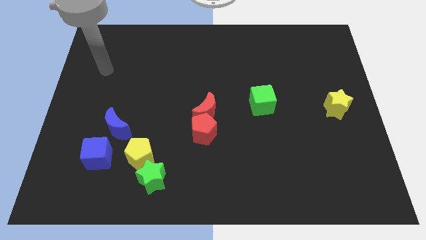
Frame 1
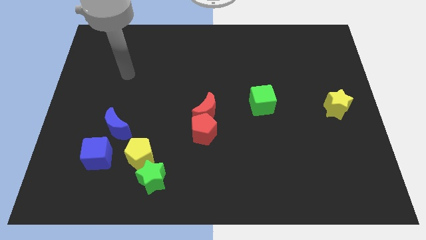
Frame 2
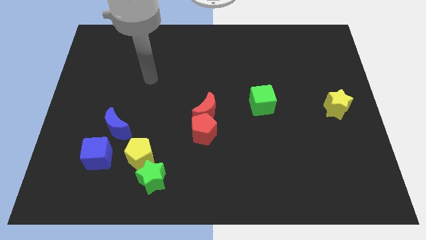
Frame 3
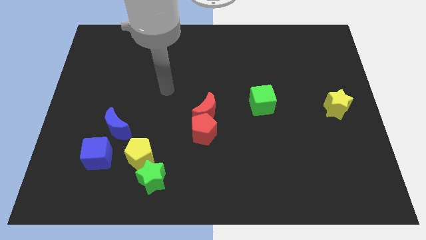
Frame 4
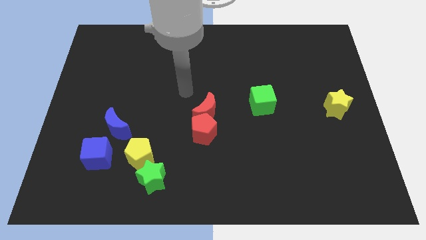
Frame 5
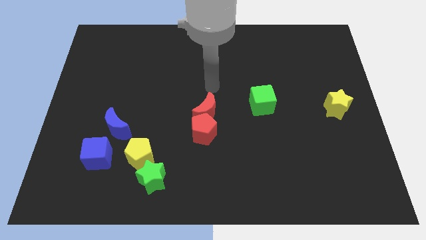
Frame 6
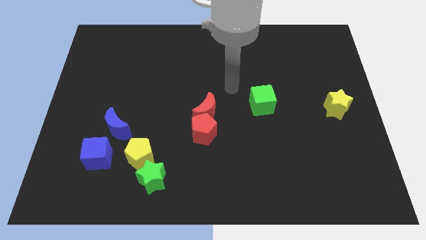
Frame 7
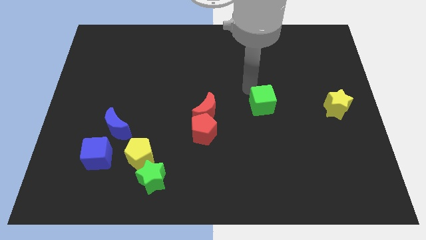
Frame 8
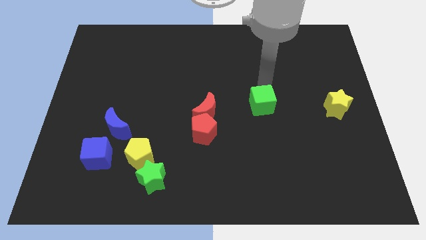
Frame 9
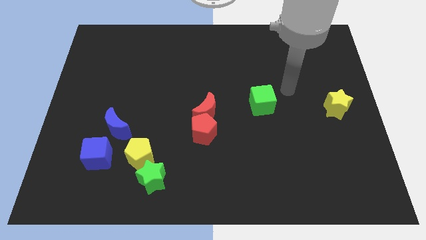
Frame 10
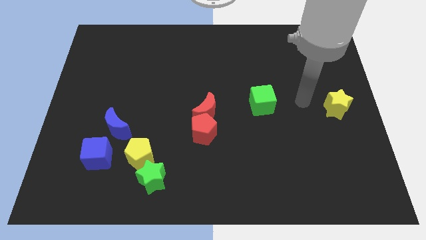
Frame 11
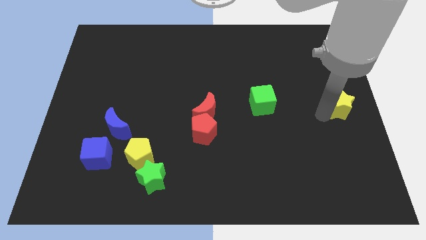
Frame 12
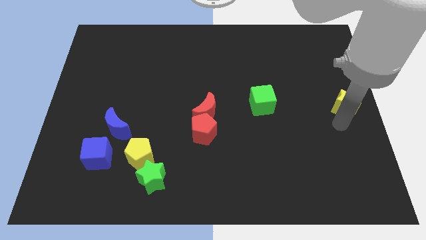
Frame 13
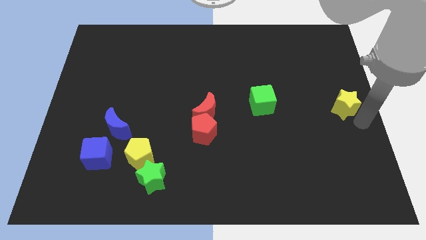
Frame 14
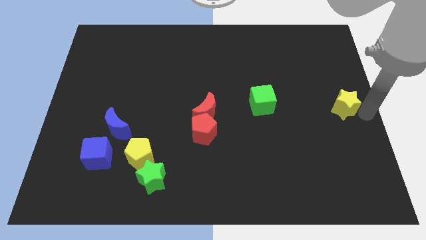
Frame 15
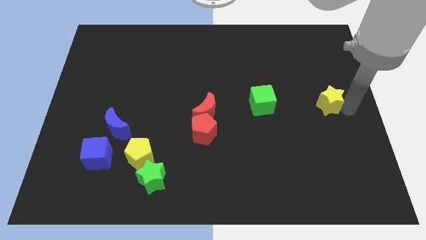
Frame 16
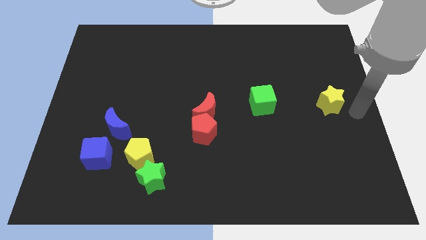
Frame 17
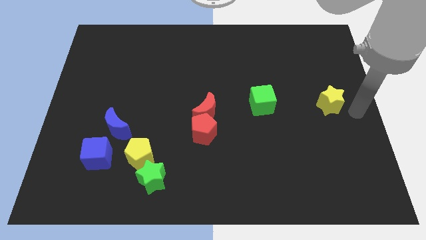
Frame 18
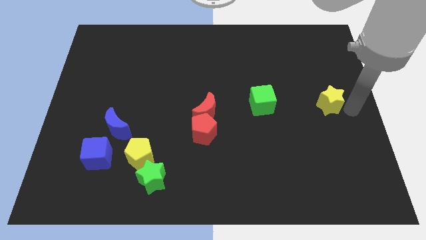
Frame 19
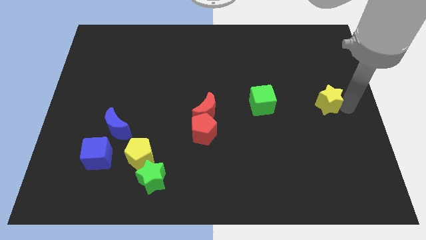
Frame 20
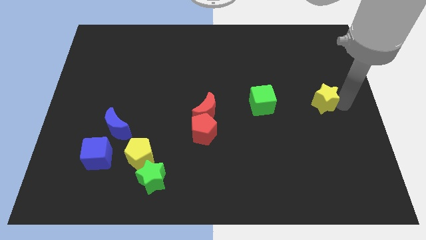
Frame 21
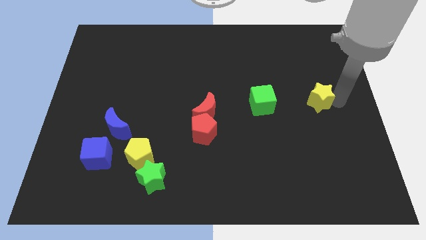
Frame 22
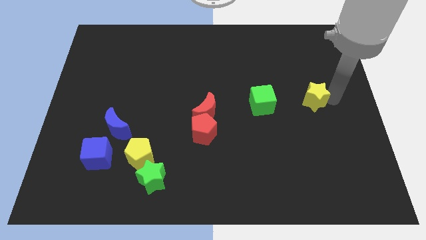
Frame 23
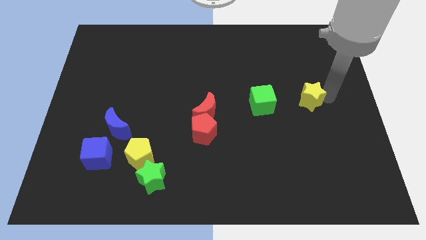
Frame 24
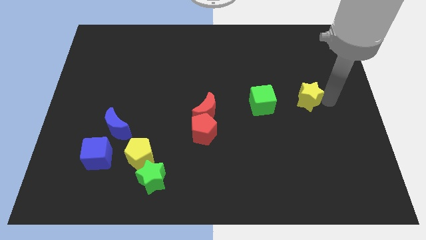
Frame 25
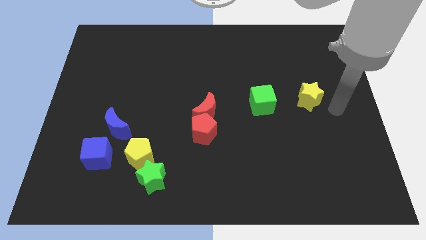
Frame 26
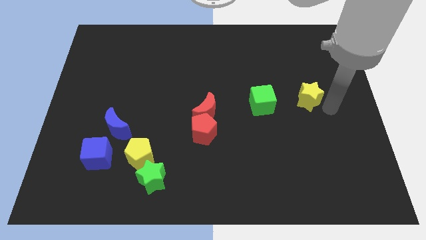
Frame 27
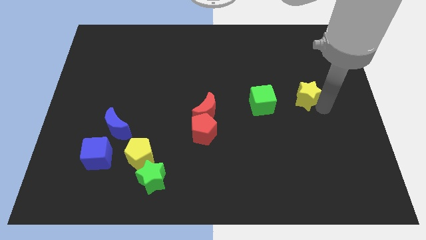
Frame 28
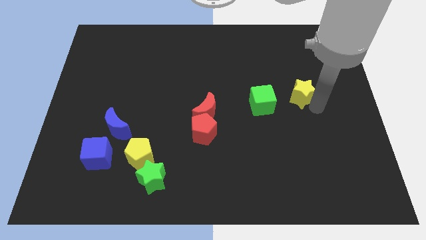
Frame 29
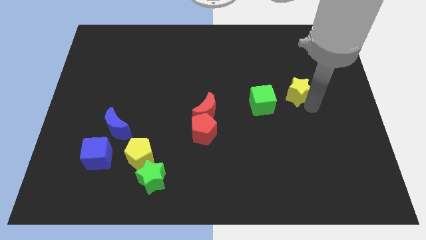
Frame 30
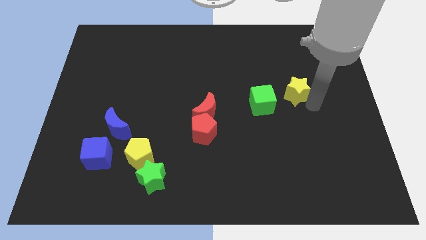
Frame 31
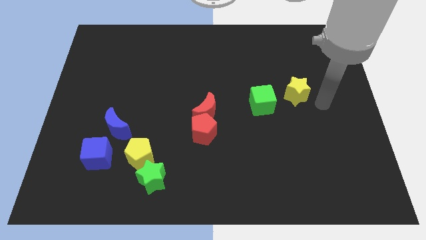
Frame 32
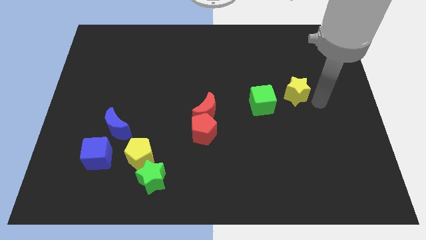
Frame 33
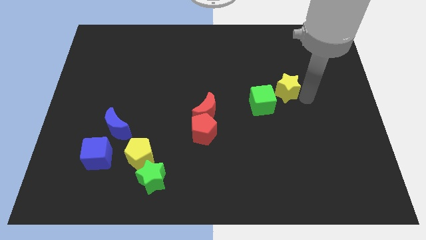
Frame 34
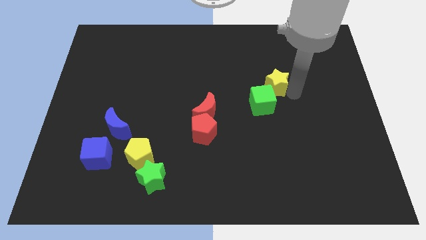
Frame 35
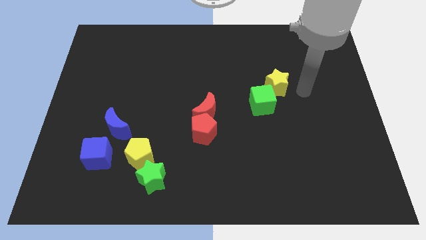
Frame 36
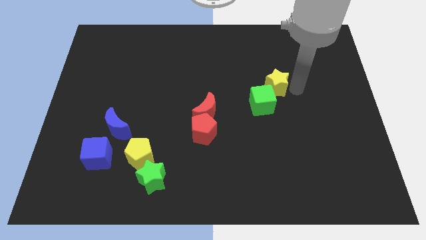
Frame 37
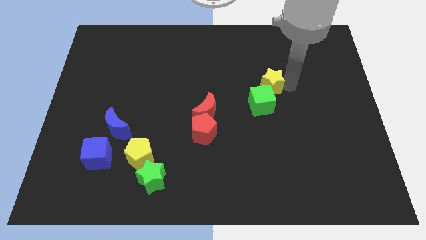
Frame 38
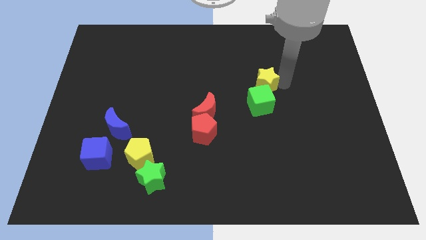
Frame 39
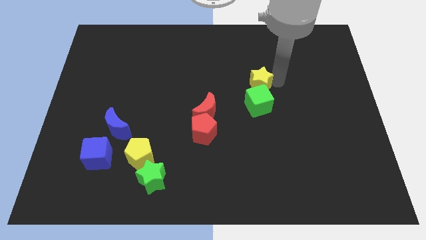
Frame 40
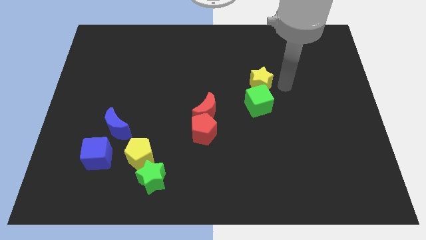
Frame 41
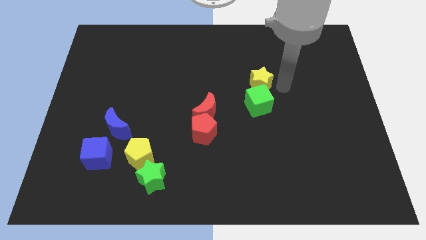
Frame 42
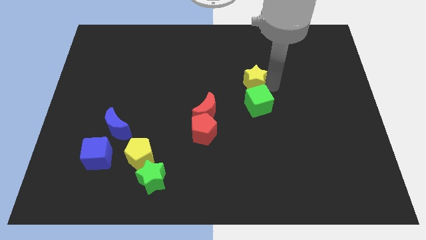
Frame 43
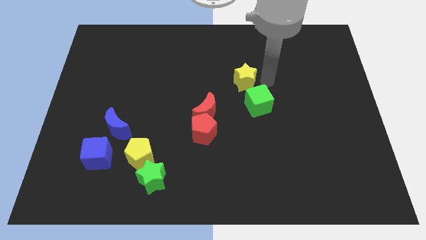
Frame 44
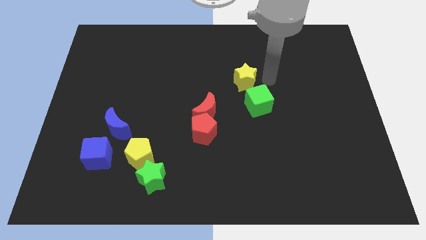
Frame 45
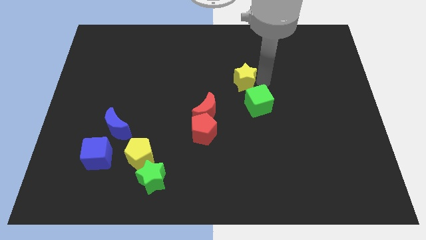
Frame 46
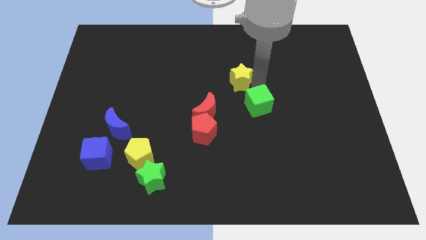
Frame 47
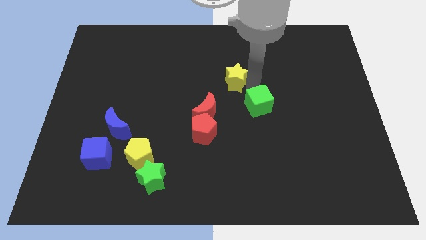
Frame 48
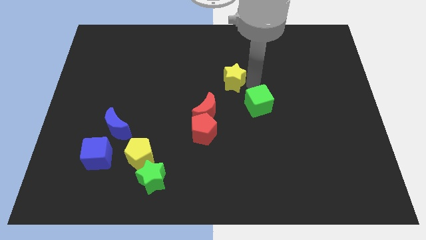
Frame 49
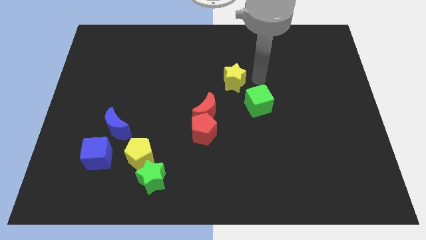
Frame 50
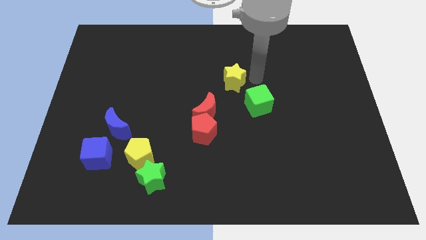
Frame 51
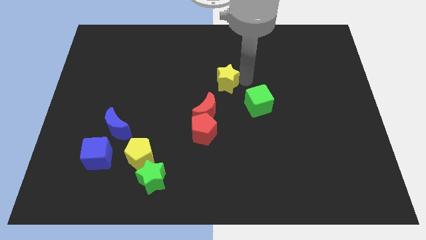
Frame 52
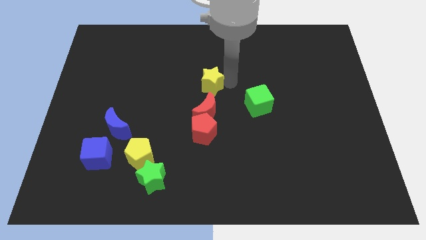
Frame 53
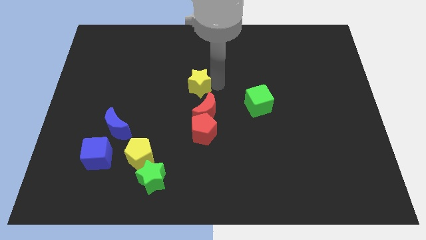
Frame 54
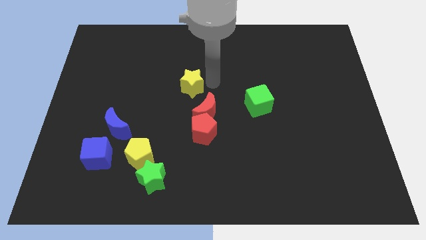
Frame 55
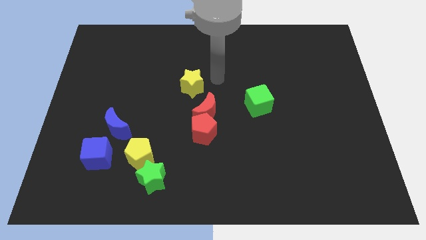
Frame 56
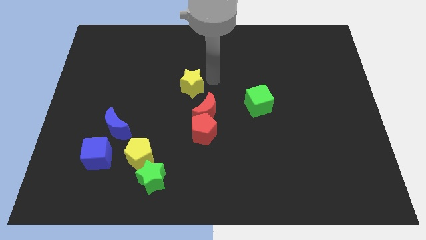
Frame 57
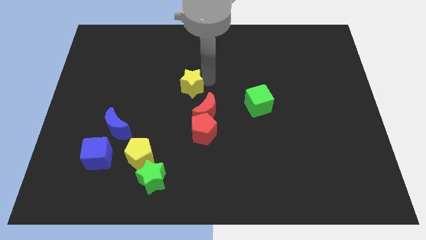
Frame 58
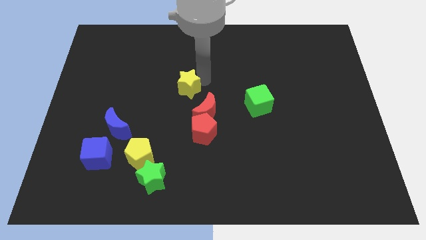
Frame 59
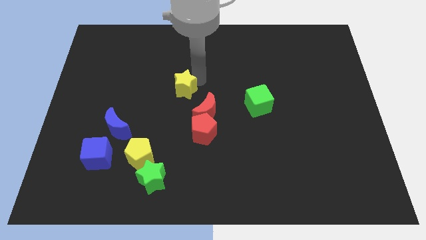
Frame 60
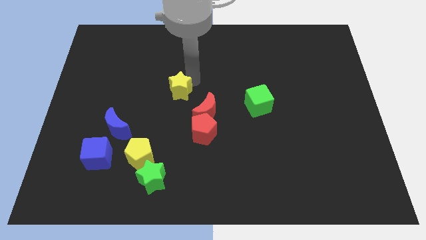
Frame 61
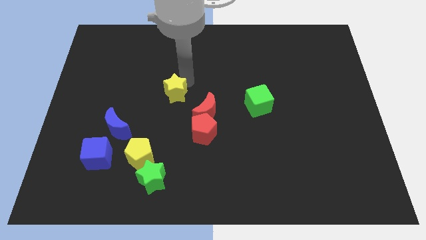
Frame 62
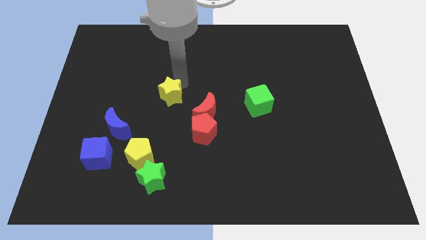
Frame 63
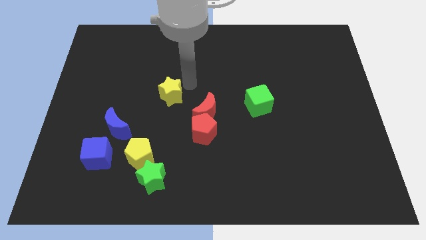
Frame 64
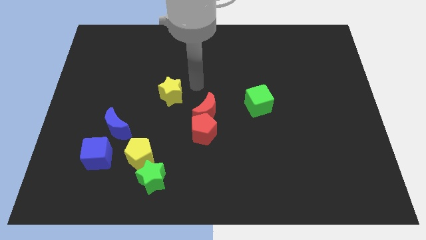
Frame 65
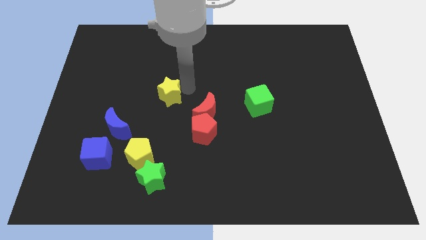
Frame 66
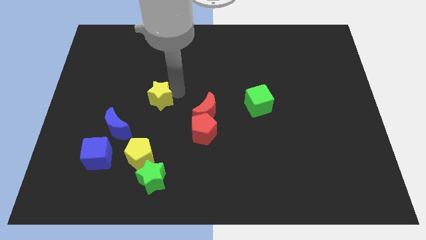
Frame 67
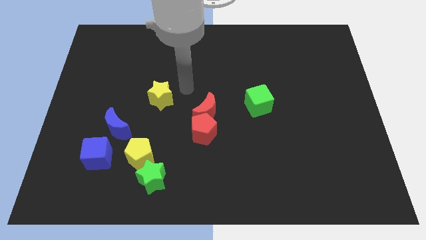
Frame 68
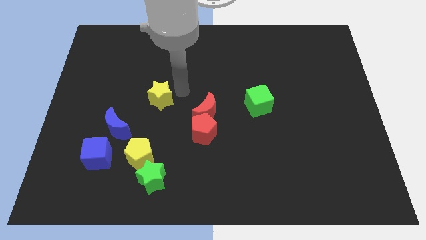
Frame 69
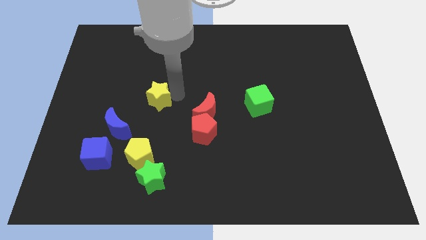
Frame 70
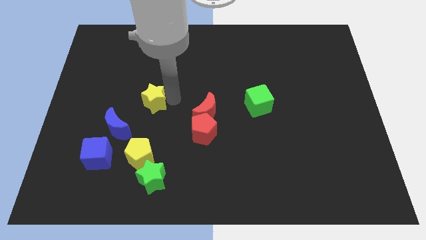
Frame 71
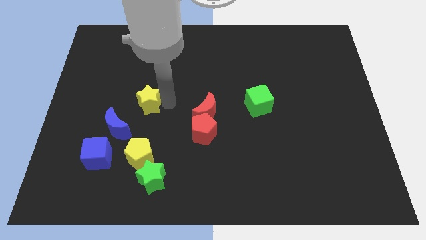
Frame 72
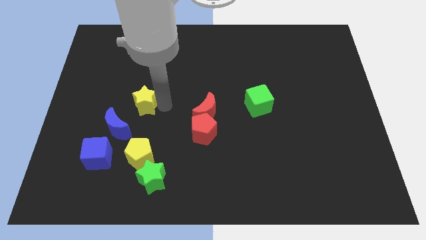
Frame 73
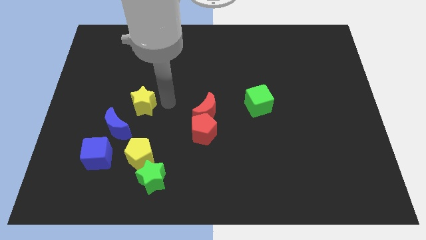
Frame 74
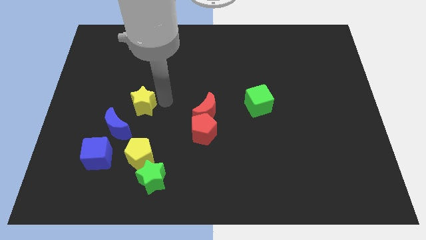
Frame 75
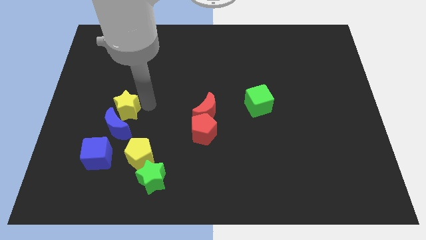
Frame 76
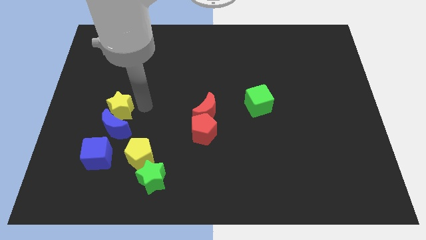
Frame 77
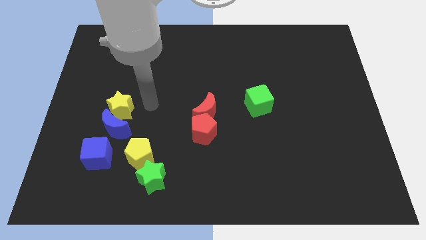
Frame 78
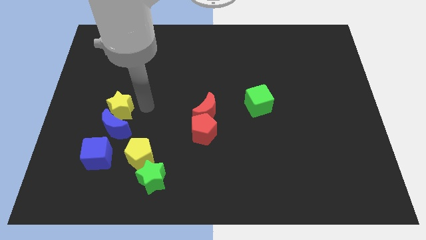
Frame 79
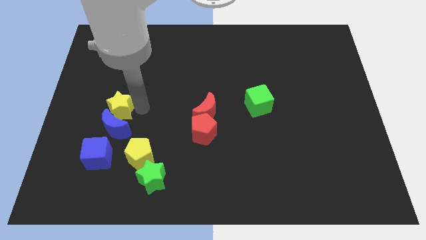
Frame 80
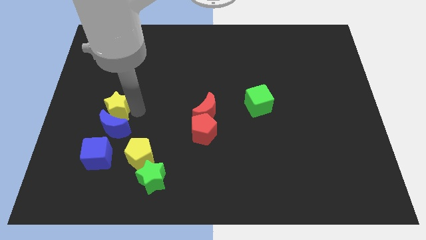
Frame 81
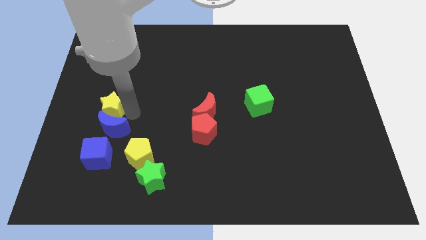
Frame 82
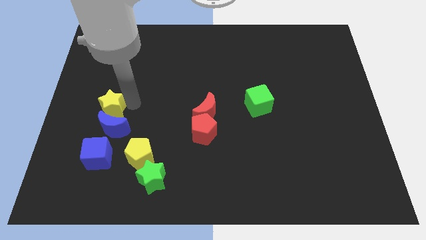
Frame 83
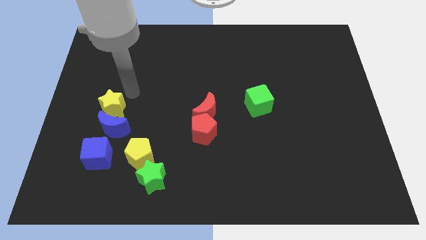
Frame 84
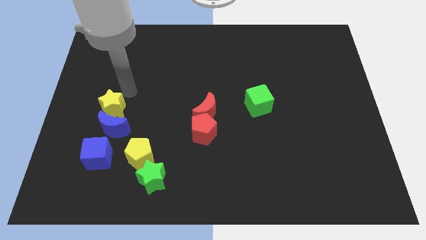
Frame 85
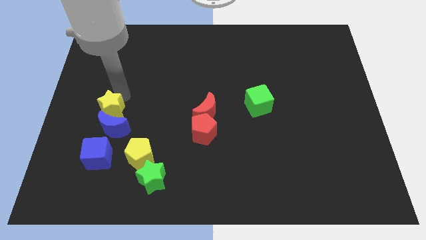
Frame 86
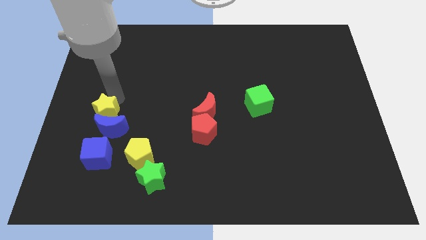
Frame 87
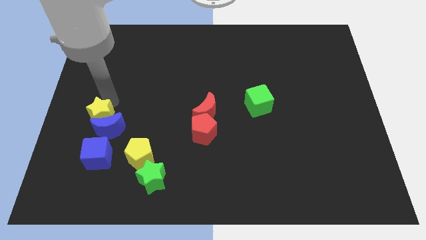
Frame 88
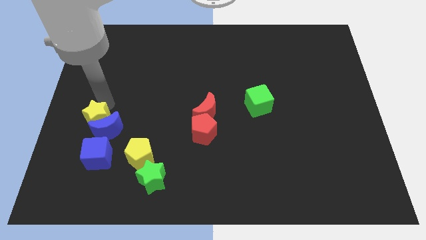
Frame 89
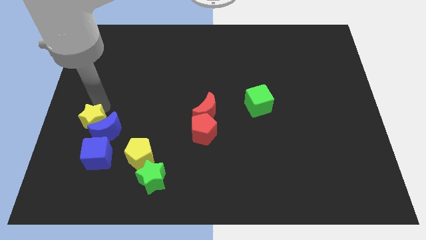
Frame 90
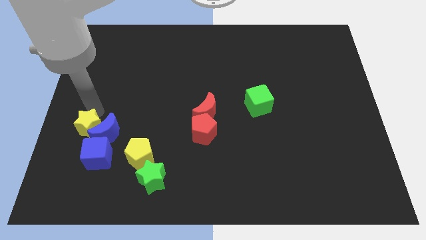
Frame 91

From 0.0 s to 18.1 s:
slide the yellow star to the bottom left side of the blue moon
